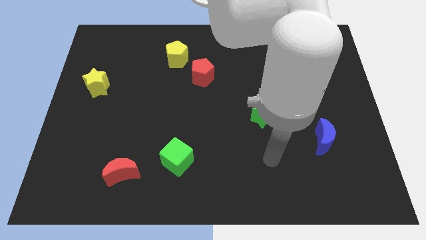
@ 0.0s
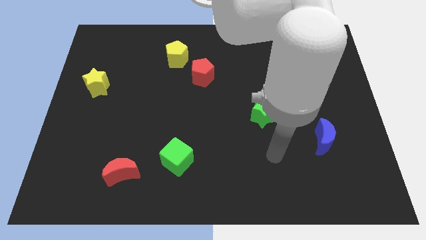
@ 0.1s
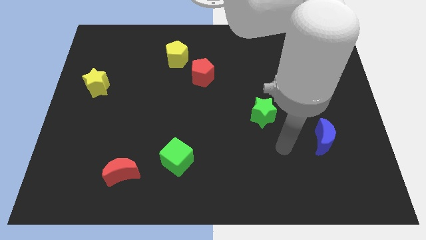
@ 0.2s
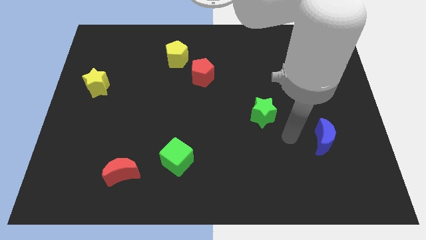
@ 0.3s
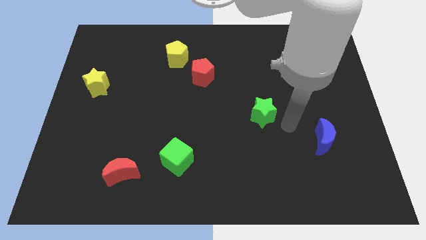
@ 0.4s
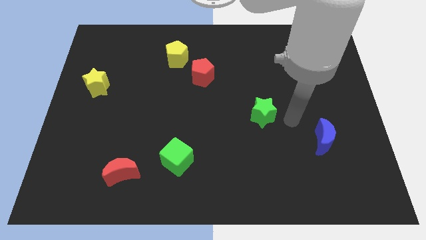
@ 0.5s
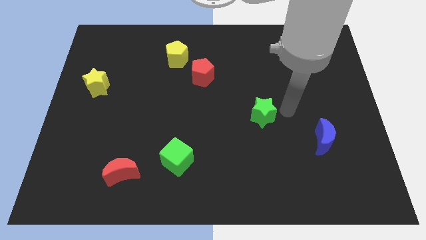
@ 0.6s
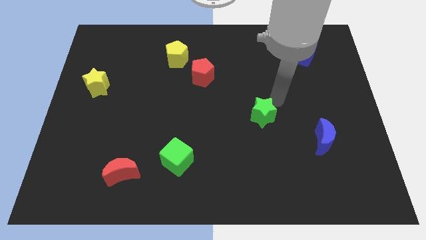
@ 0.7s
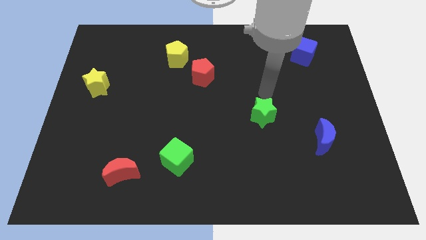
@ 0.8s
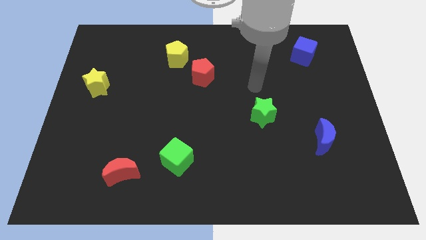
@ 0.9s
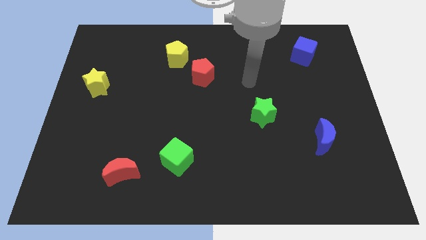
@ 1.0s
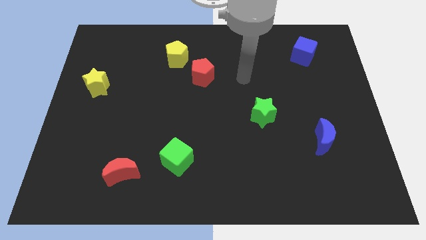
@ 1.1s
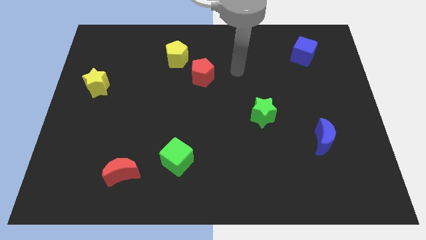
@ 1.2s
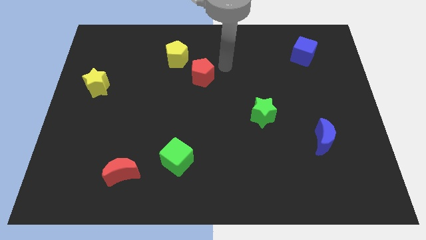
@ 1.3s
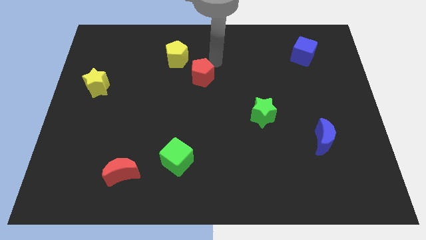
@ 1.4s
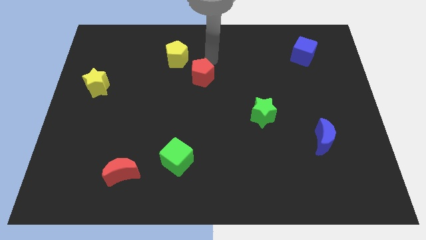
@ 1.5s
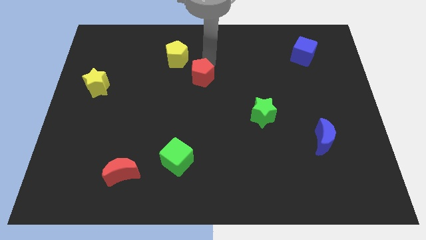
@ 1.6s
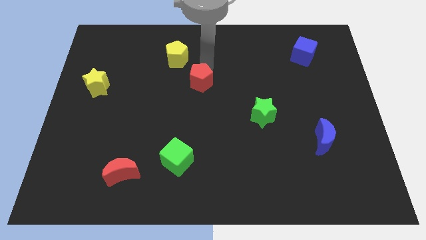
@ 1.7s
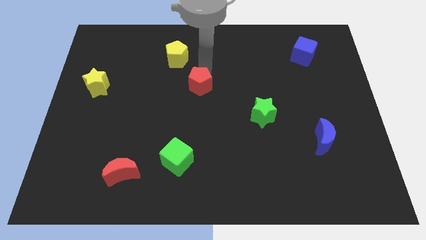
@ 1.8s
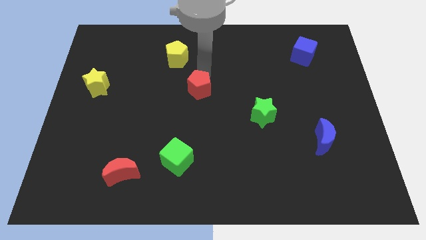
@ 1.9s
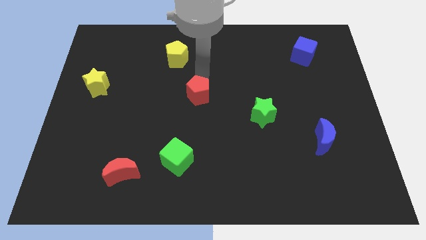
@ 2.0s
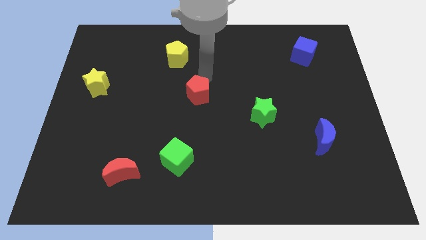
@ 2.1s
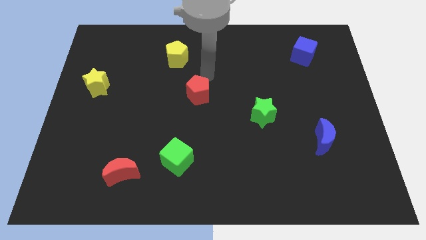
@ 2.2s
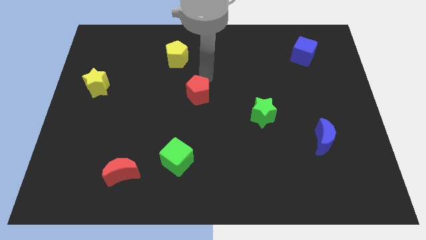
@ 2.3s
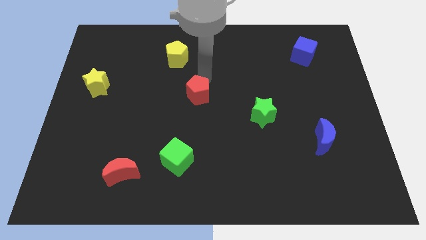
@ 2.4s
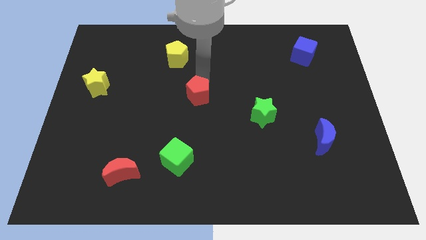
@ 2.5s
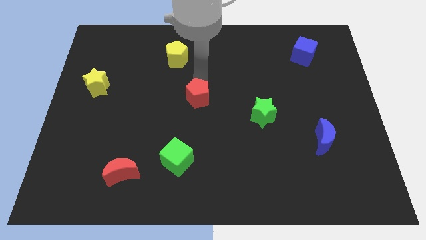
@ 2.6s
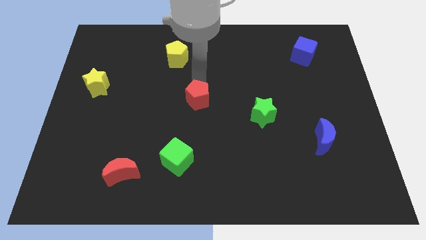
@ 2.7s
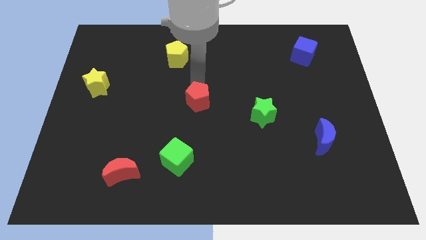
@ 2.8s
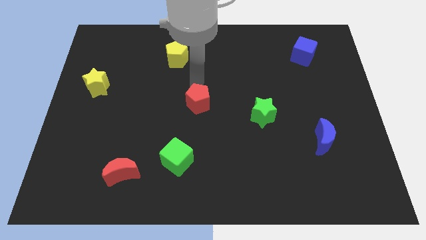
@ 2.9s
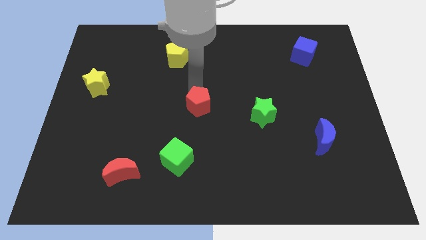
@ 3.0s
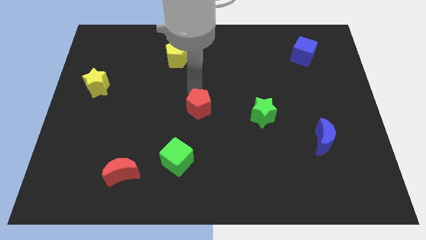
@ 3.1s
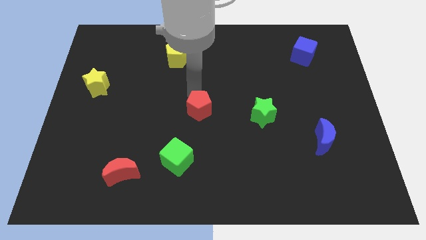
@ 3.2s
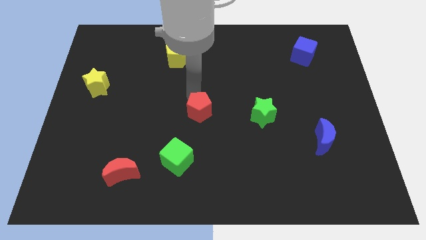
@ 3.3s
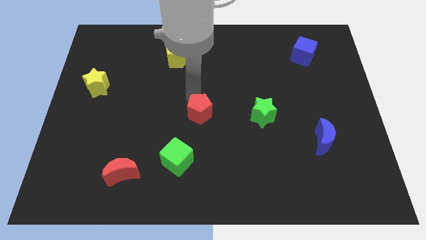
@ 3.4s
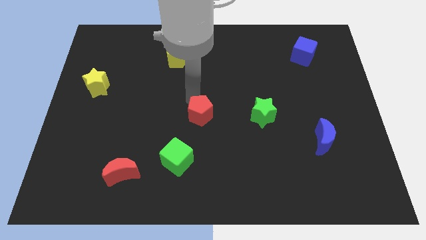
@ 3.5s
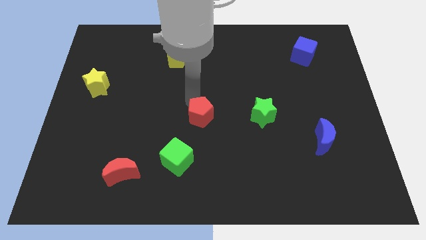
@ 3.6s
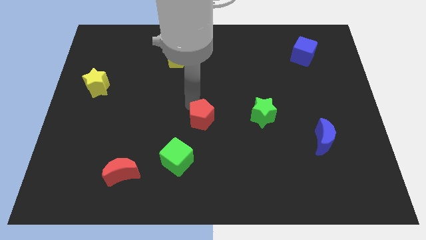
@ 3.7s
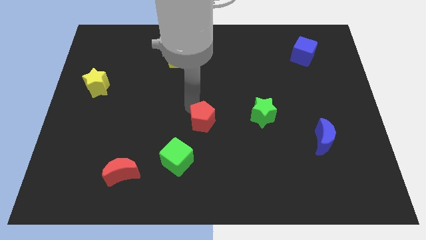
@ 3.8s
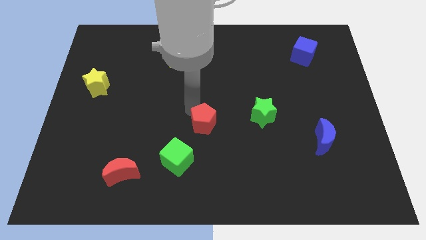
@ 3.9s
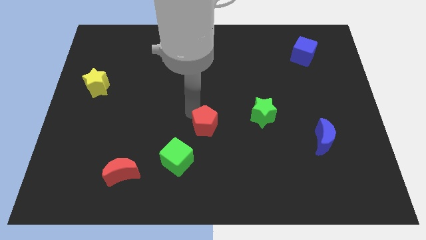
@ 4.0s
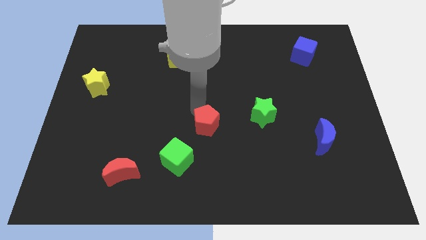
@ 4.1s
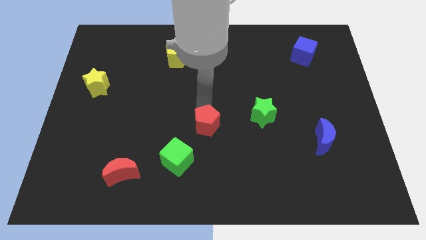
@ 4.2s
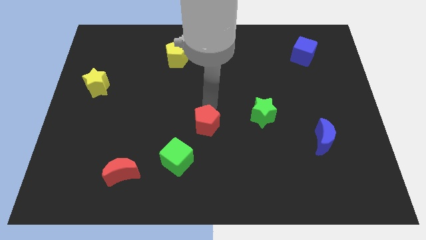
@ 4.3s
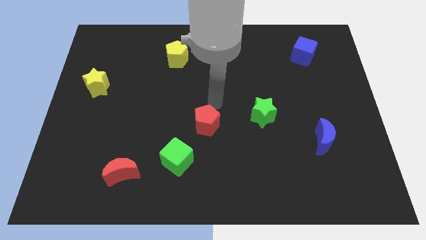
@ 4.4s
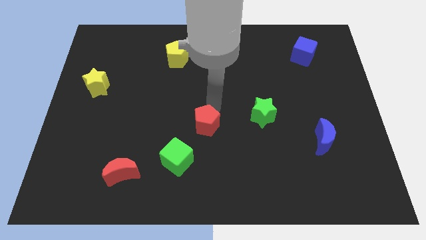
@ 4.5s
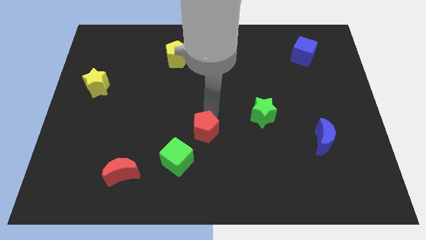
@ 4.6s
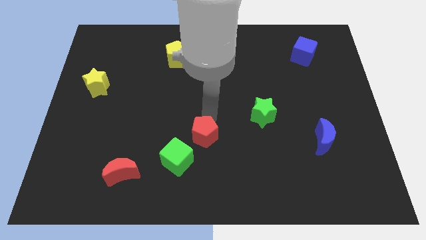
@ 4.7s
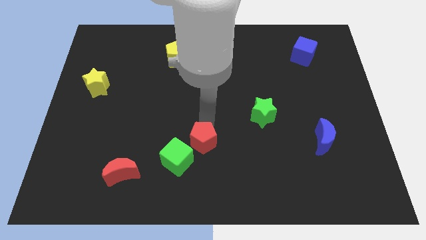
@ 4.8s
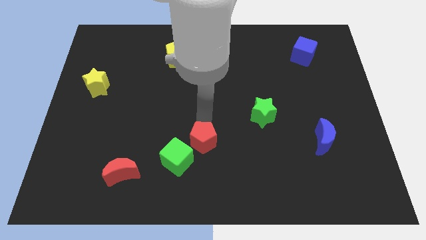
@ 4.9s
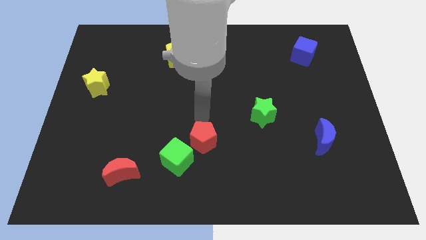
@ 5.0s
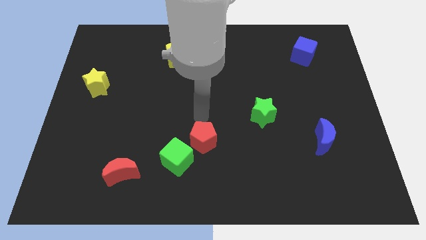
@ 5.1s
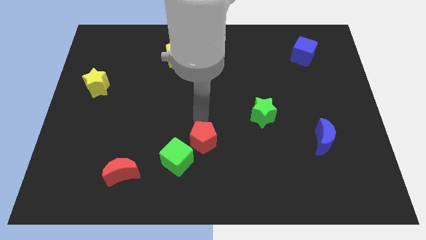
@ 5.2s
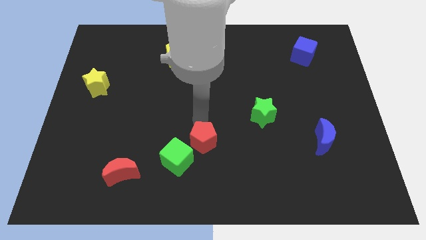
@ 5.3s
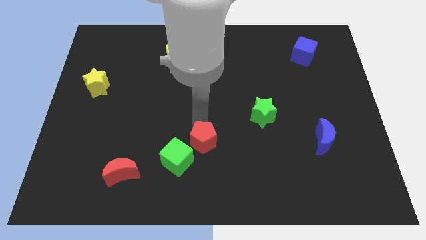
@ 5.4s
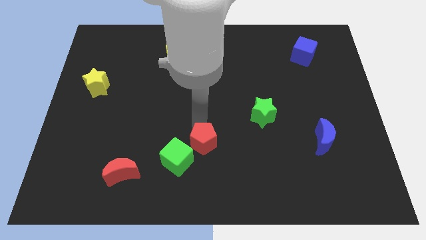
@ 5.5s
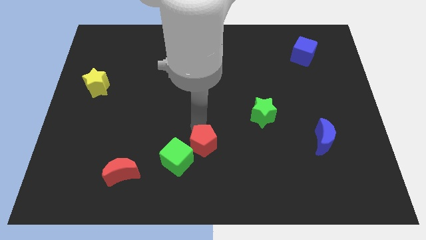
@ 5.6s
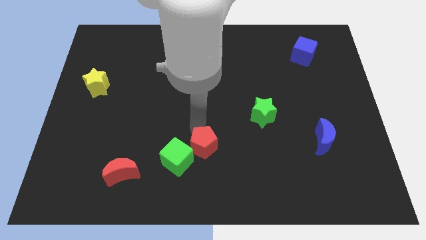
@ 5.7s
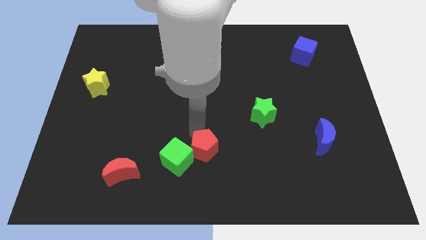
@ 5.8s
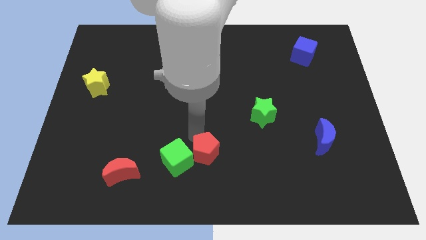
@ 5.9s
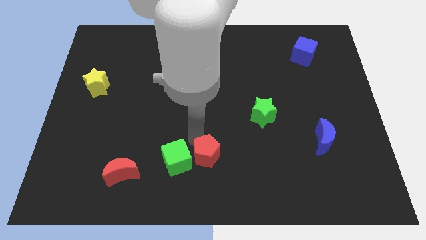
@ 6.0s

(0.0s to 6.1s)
move the red pentagon to the bottom
